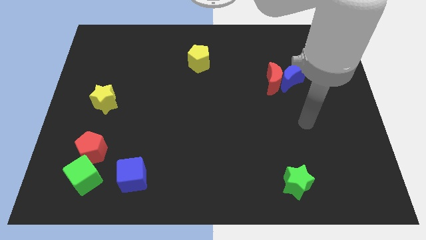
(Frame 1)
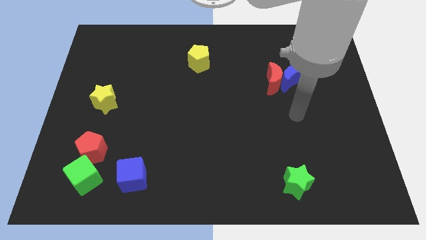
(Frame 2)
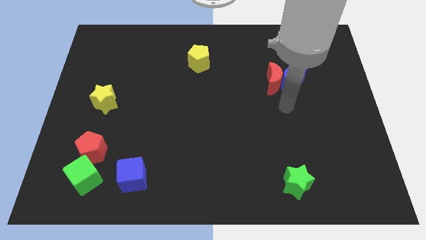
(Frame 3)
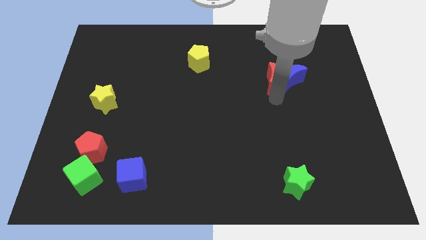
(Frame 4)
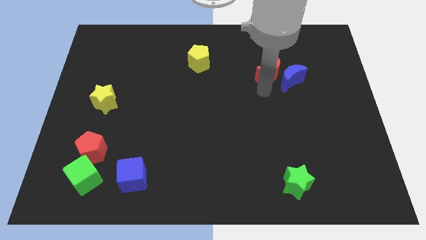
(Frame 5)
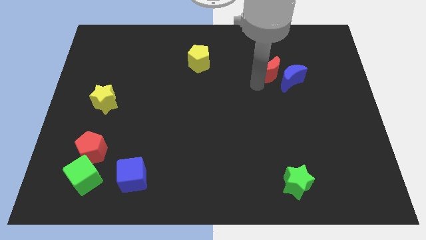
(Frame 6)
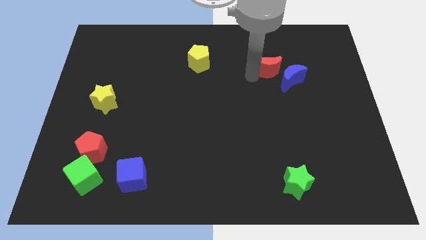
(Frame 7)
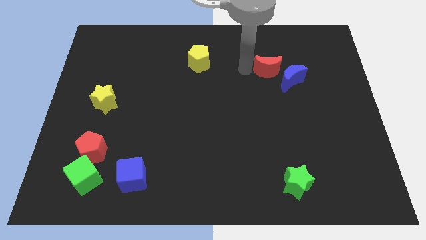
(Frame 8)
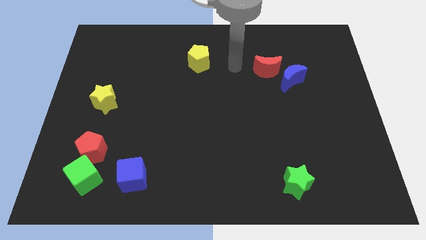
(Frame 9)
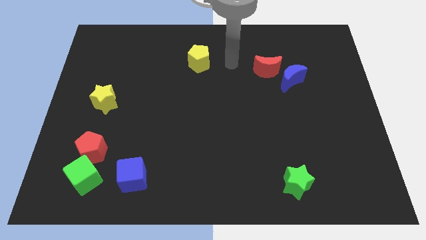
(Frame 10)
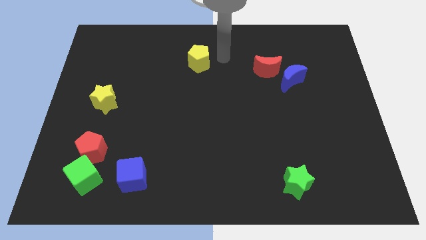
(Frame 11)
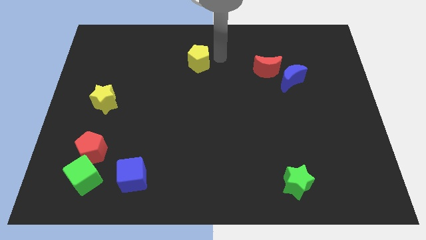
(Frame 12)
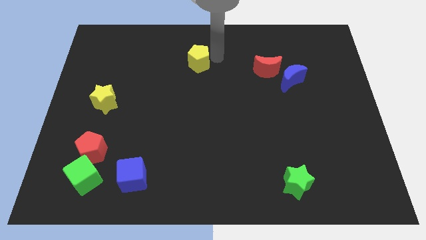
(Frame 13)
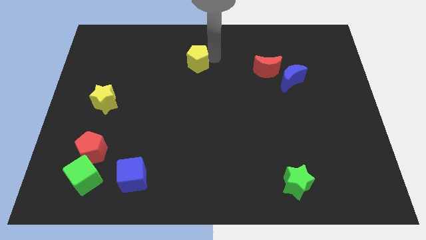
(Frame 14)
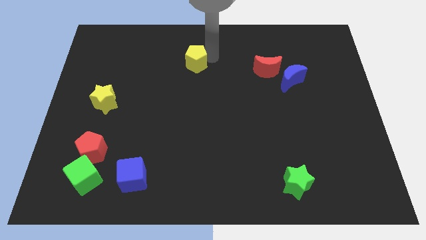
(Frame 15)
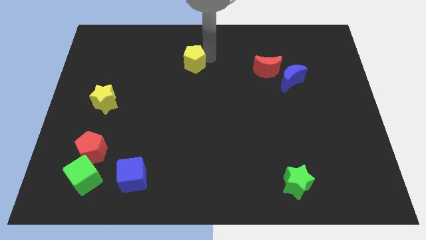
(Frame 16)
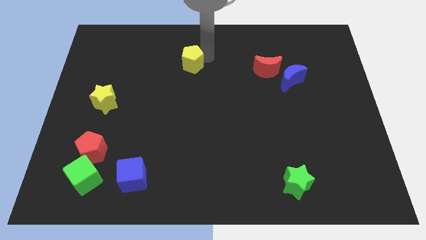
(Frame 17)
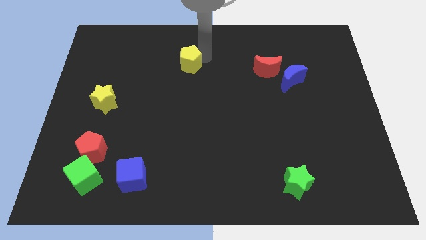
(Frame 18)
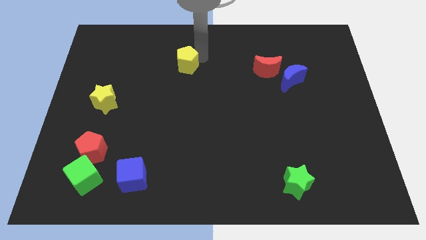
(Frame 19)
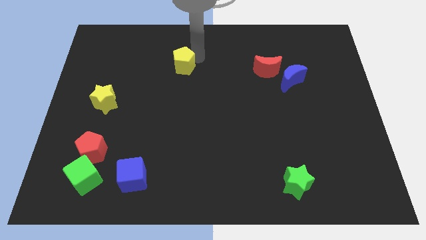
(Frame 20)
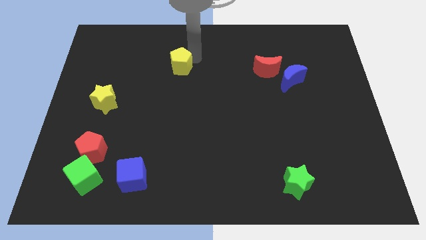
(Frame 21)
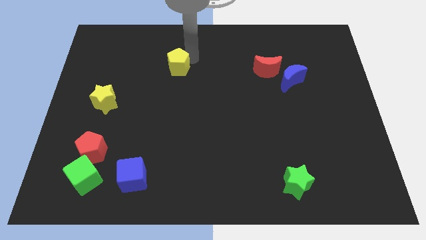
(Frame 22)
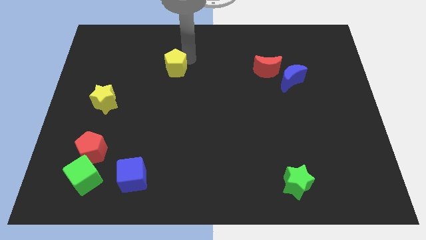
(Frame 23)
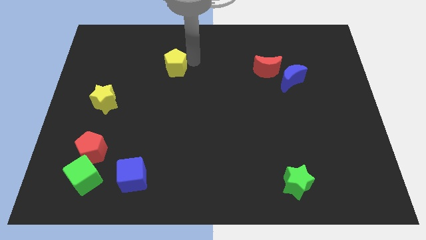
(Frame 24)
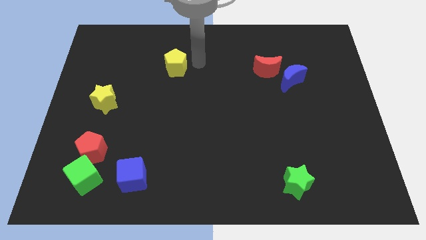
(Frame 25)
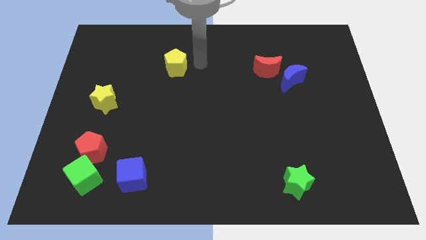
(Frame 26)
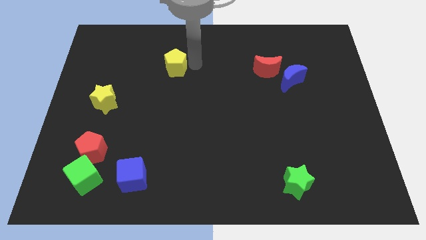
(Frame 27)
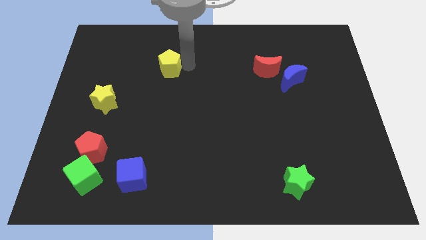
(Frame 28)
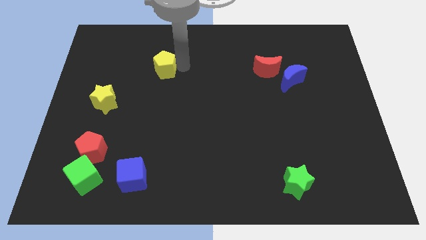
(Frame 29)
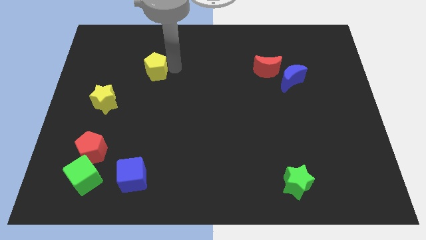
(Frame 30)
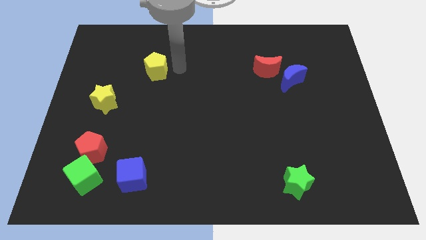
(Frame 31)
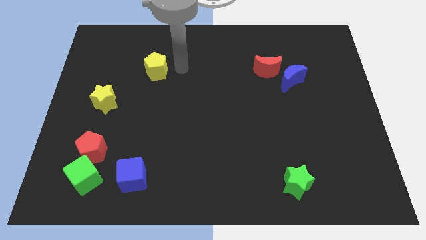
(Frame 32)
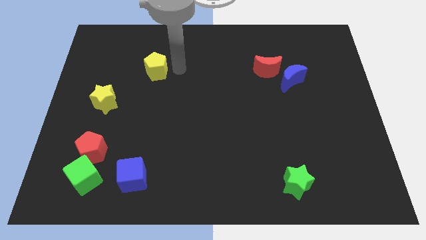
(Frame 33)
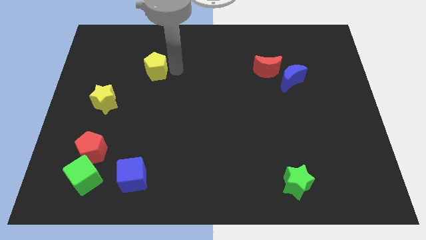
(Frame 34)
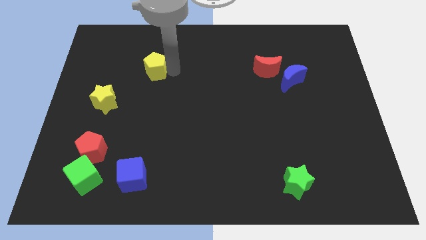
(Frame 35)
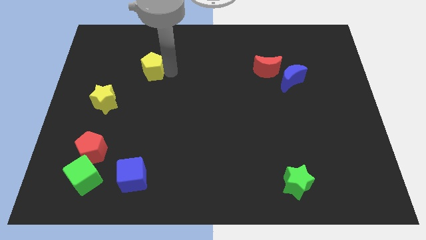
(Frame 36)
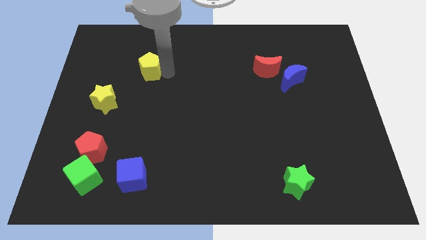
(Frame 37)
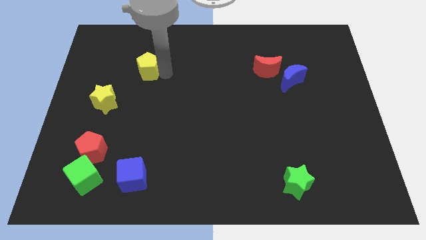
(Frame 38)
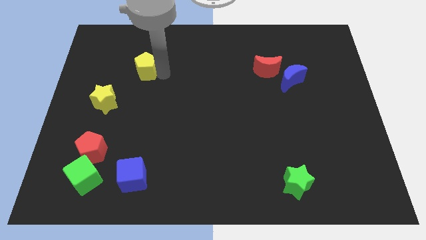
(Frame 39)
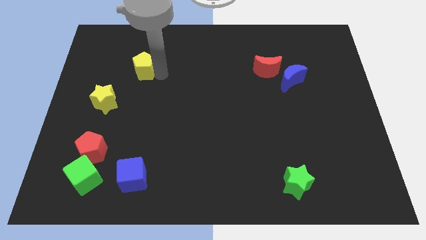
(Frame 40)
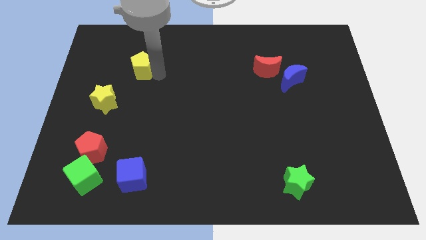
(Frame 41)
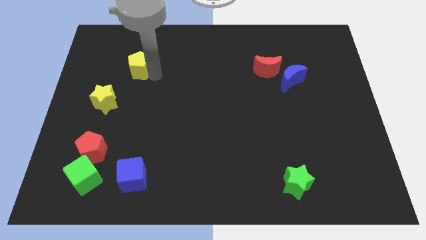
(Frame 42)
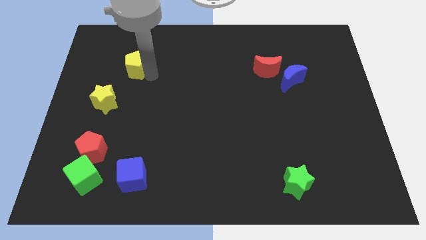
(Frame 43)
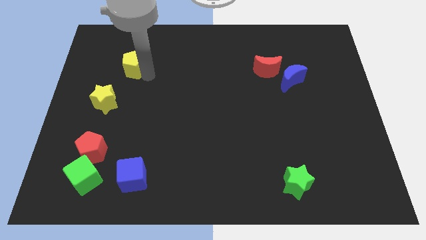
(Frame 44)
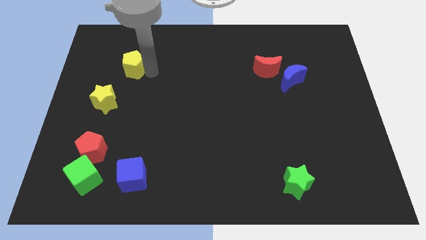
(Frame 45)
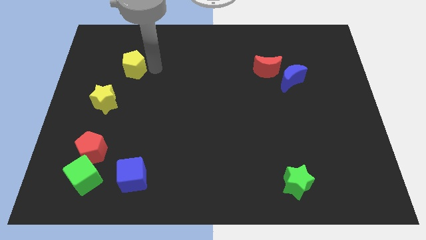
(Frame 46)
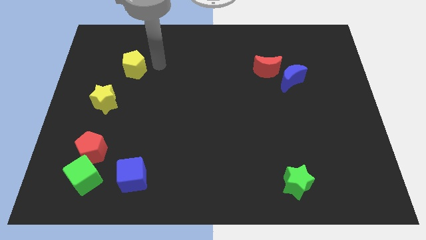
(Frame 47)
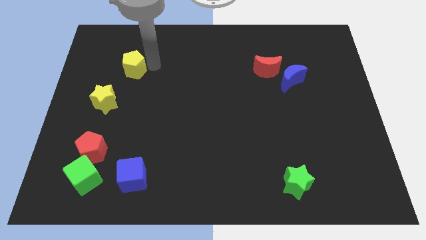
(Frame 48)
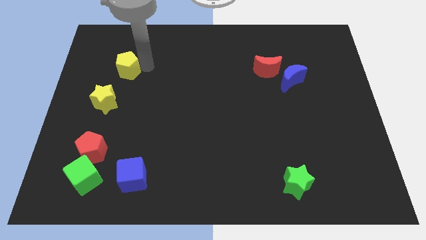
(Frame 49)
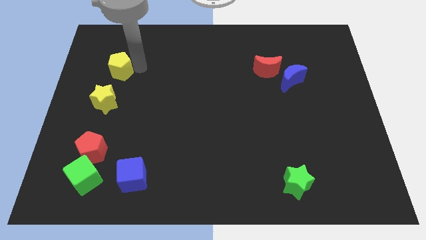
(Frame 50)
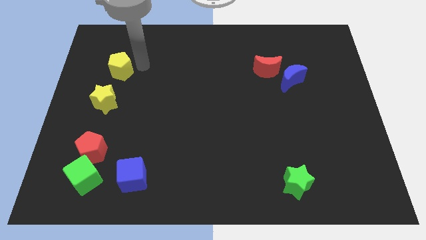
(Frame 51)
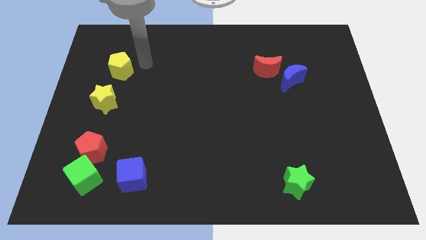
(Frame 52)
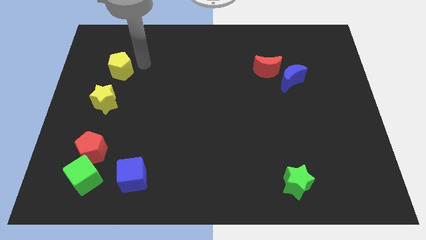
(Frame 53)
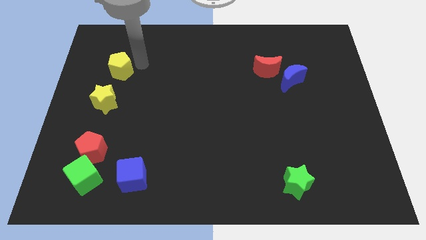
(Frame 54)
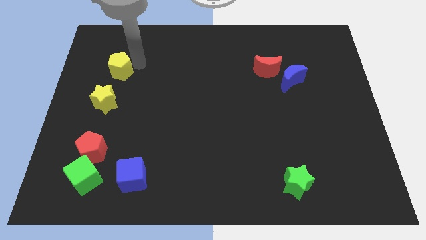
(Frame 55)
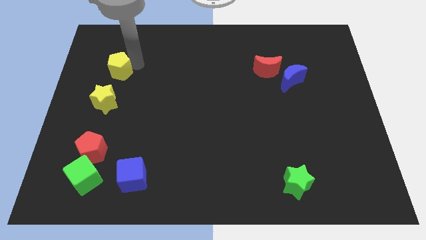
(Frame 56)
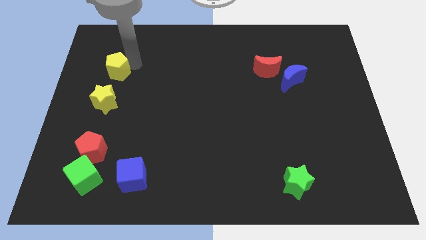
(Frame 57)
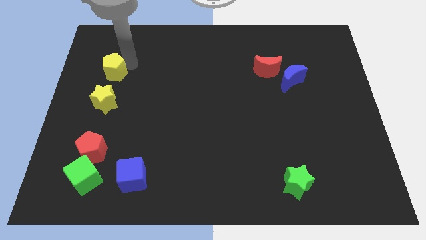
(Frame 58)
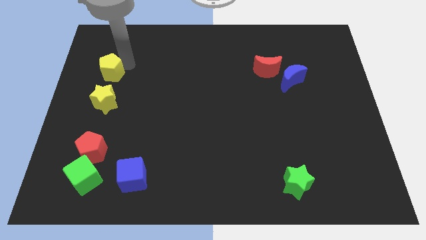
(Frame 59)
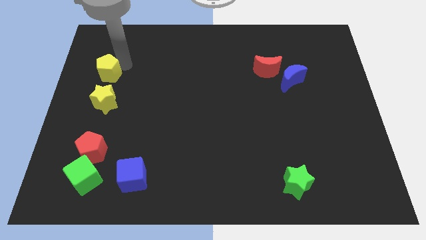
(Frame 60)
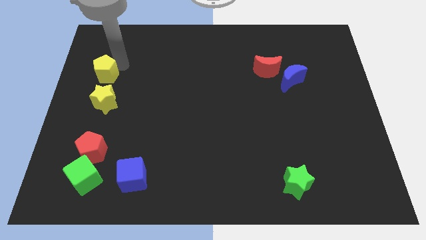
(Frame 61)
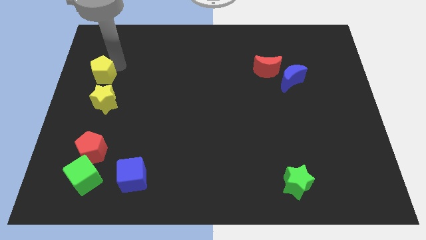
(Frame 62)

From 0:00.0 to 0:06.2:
put the yellow pentagon to the left side
